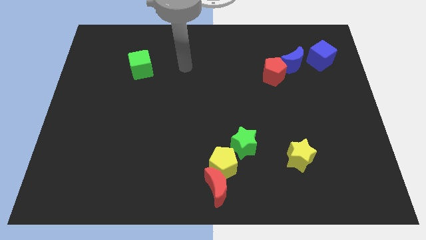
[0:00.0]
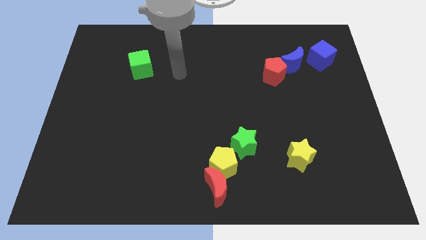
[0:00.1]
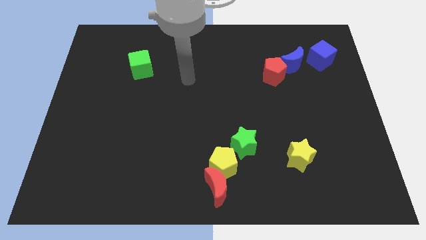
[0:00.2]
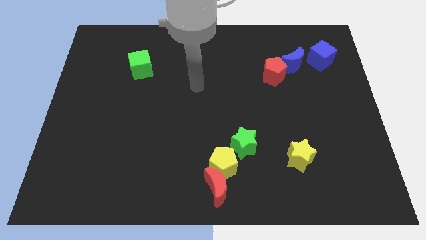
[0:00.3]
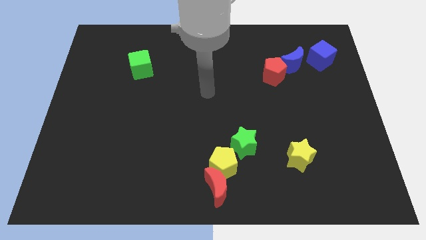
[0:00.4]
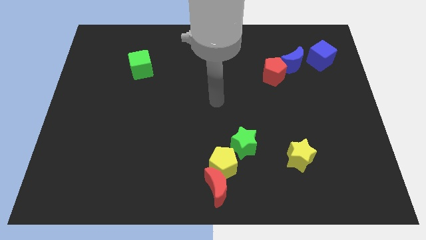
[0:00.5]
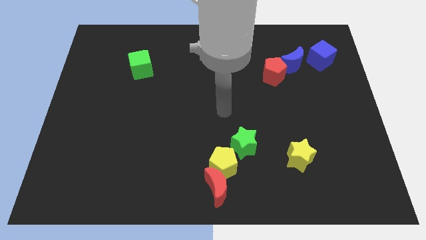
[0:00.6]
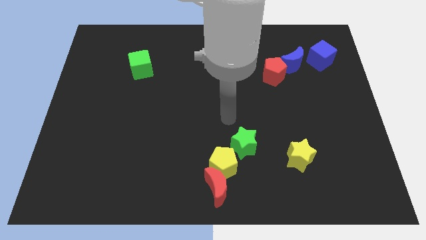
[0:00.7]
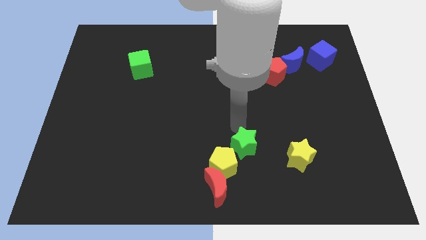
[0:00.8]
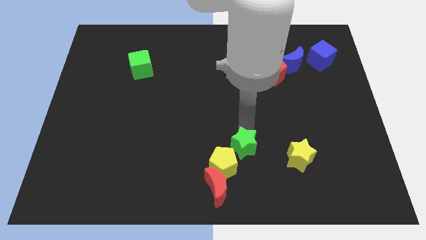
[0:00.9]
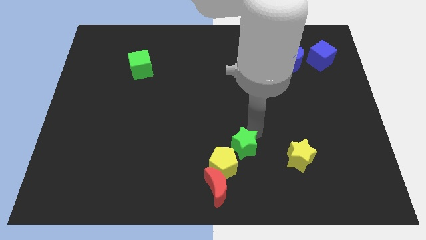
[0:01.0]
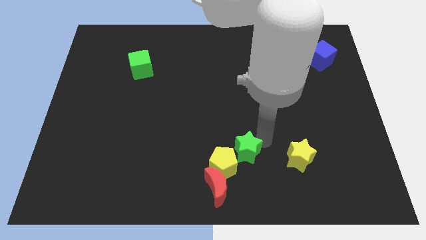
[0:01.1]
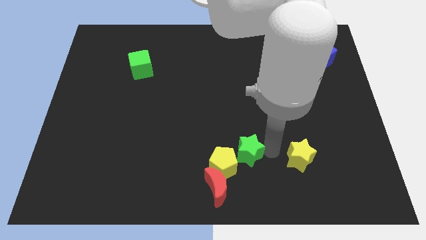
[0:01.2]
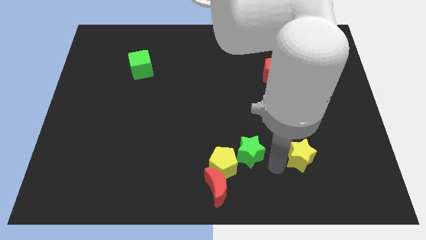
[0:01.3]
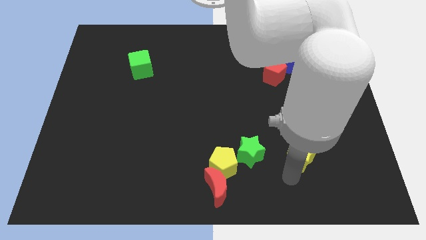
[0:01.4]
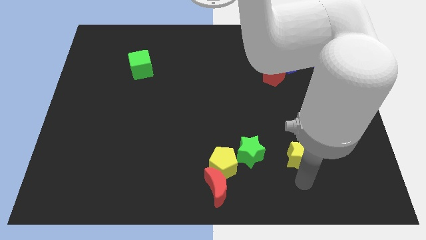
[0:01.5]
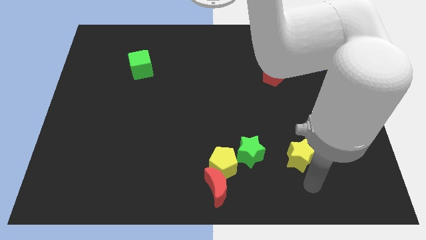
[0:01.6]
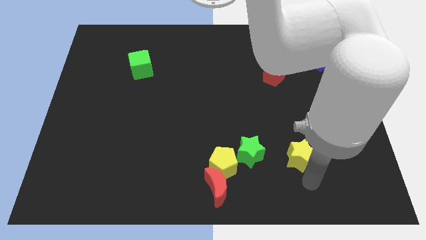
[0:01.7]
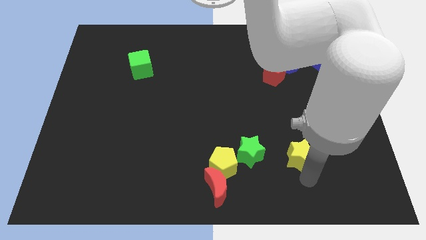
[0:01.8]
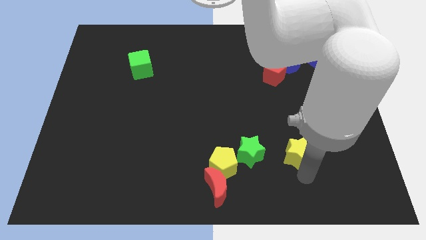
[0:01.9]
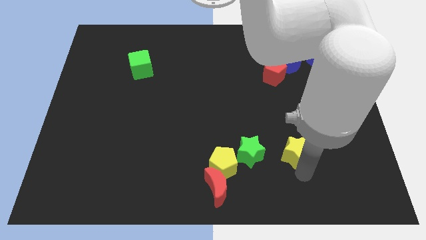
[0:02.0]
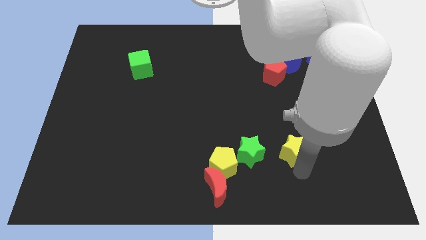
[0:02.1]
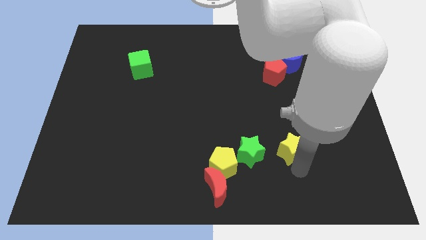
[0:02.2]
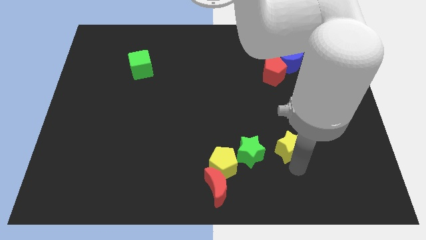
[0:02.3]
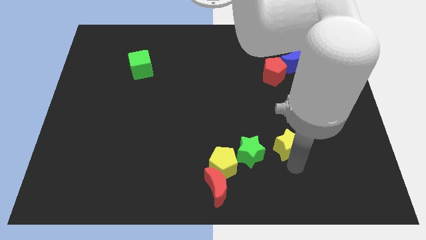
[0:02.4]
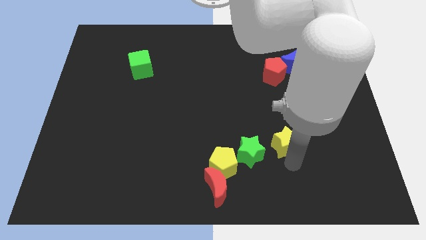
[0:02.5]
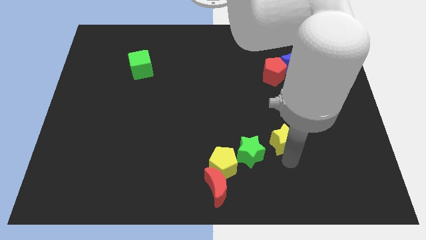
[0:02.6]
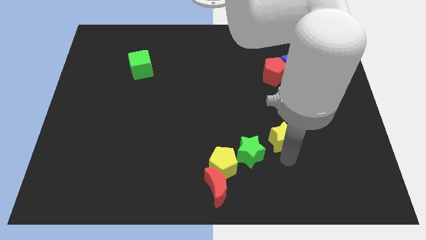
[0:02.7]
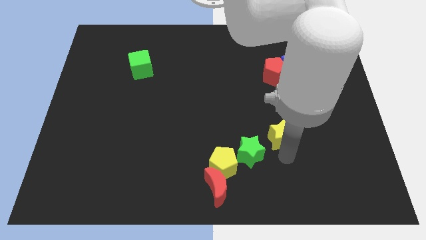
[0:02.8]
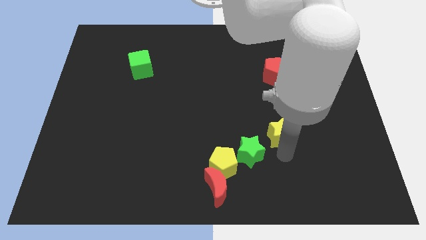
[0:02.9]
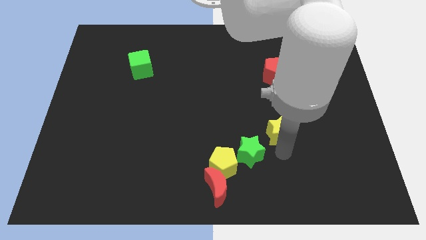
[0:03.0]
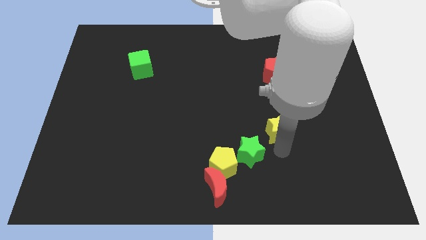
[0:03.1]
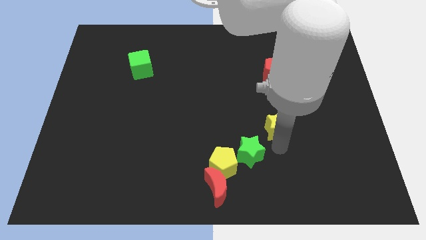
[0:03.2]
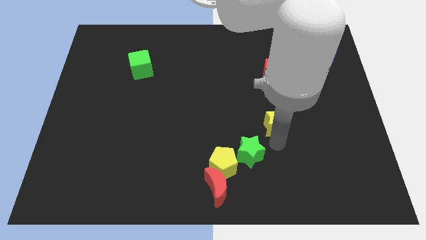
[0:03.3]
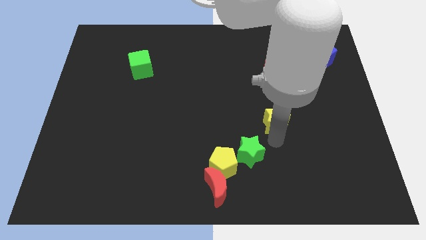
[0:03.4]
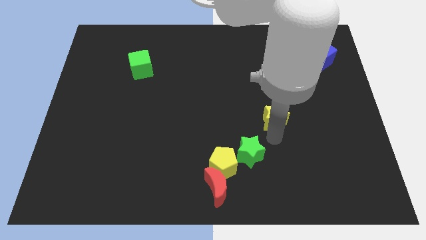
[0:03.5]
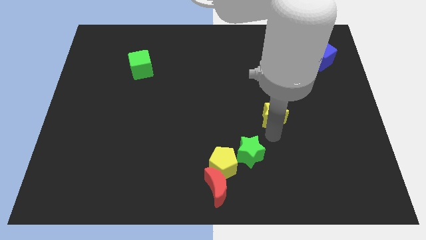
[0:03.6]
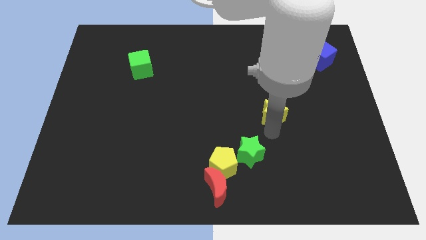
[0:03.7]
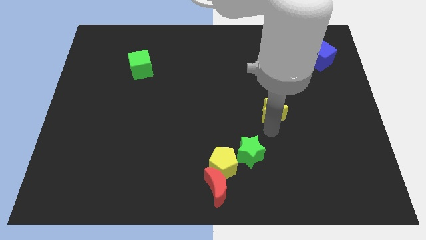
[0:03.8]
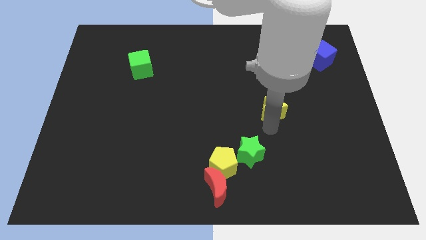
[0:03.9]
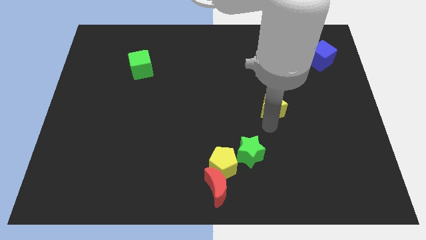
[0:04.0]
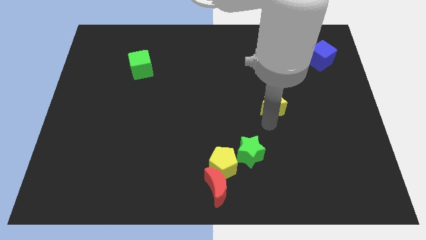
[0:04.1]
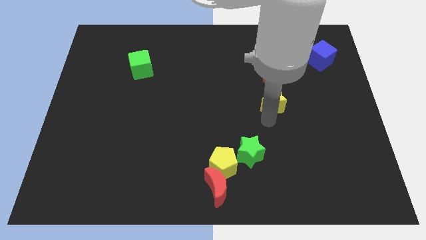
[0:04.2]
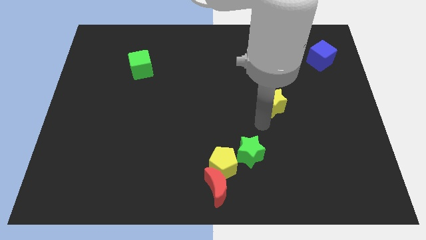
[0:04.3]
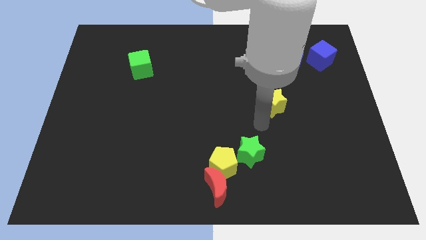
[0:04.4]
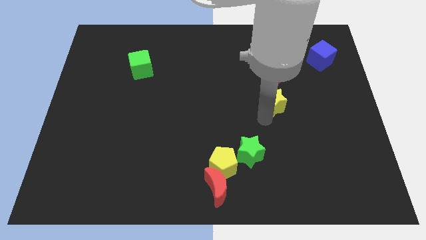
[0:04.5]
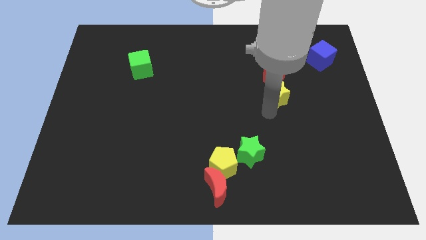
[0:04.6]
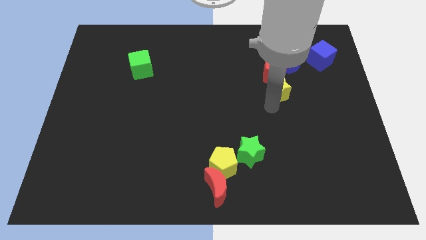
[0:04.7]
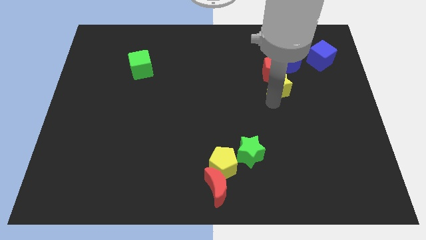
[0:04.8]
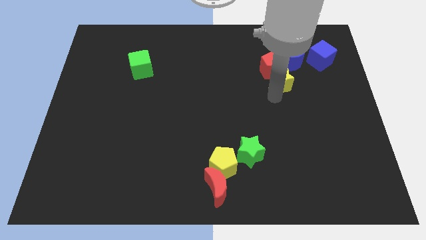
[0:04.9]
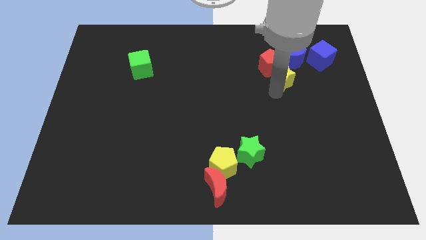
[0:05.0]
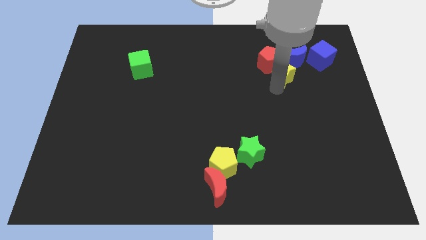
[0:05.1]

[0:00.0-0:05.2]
put the yellow star close to the blue moon

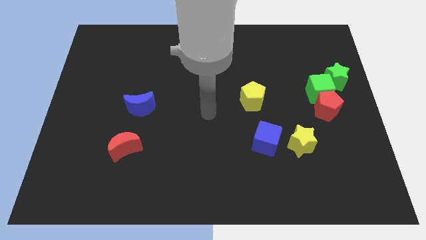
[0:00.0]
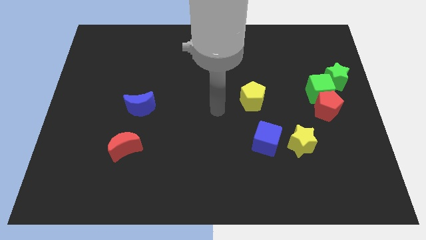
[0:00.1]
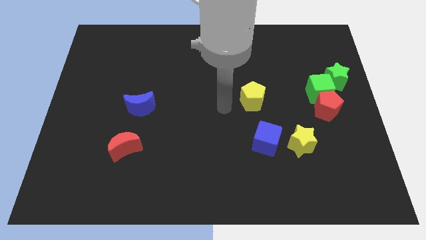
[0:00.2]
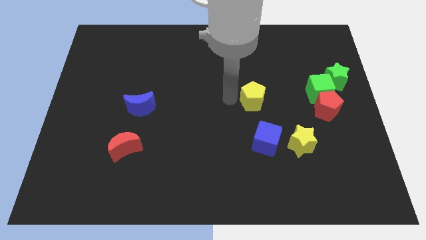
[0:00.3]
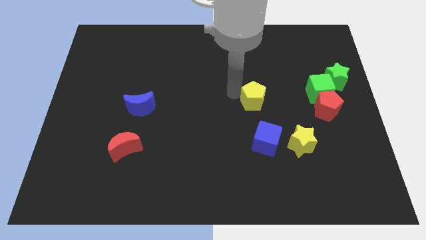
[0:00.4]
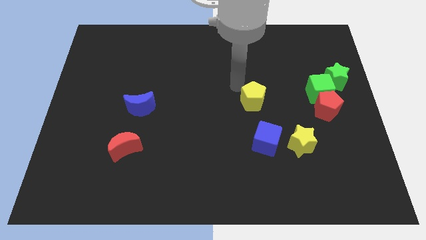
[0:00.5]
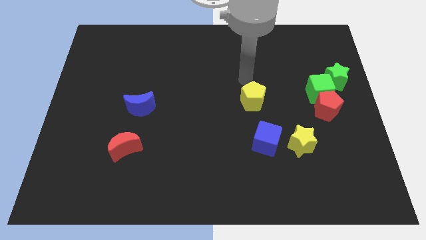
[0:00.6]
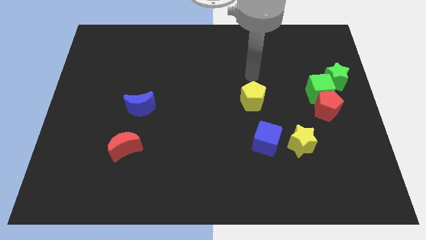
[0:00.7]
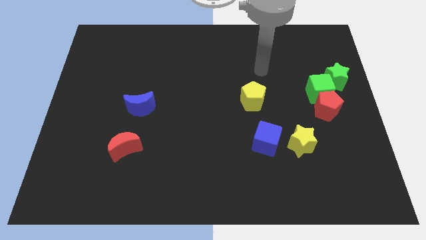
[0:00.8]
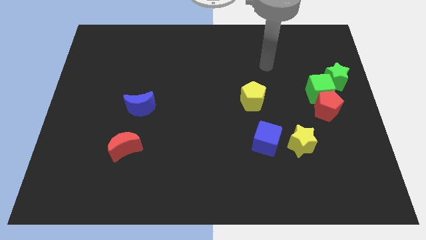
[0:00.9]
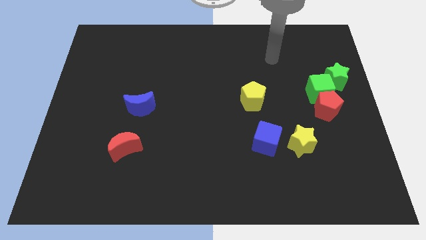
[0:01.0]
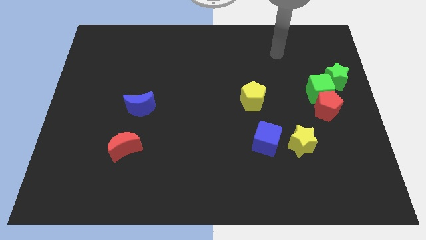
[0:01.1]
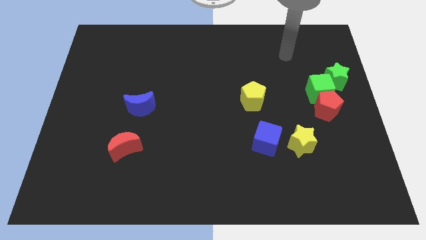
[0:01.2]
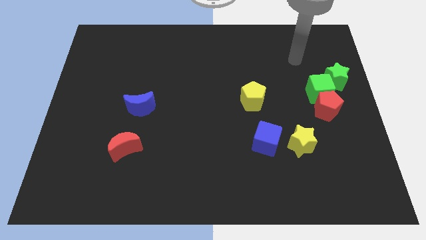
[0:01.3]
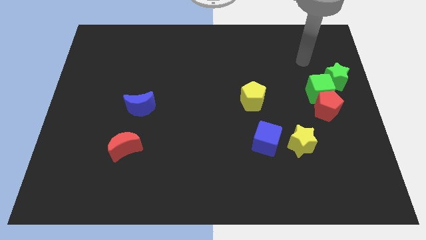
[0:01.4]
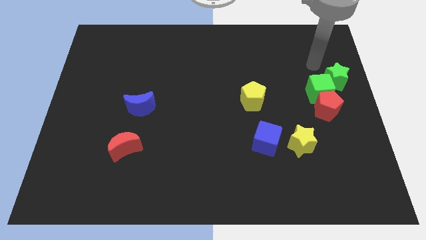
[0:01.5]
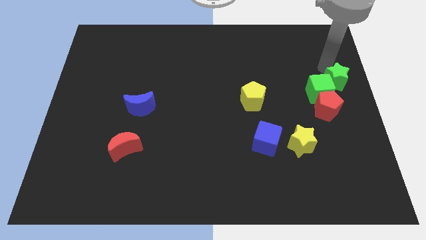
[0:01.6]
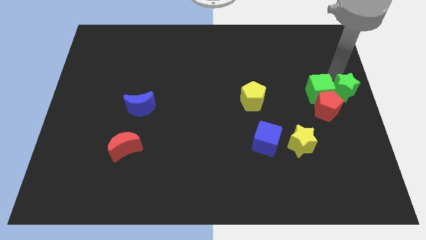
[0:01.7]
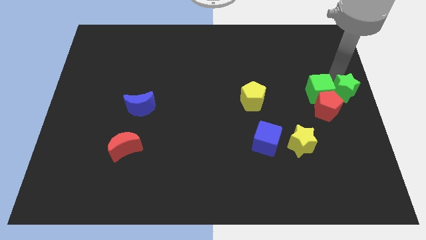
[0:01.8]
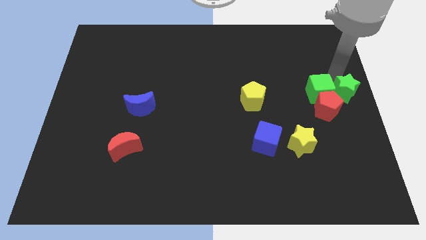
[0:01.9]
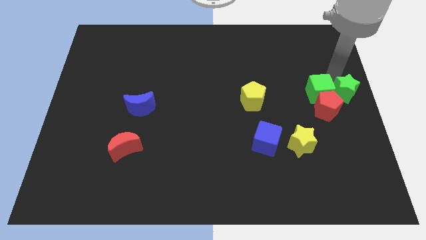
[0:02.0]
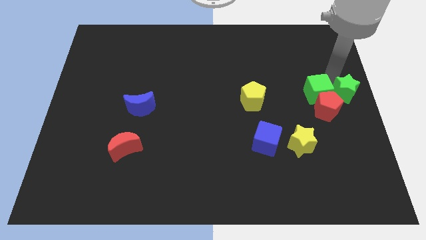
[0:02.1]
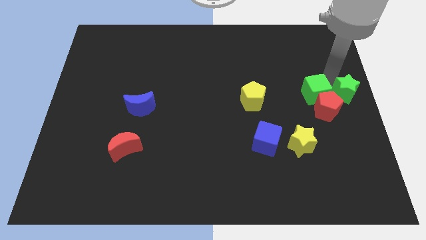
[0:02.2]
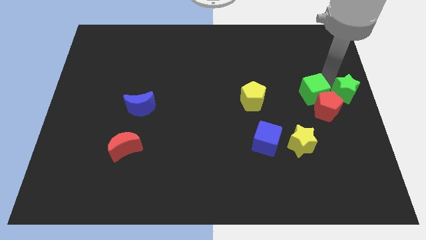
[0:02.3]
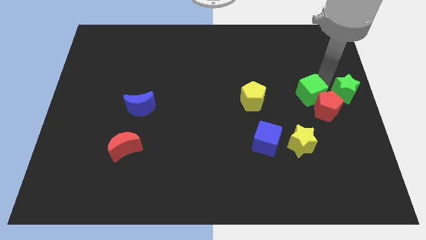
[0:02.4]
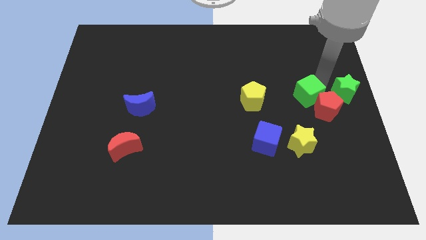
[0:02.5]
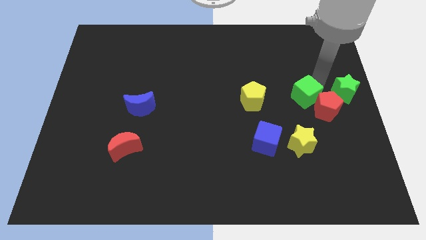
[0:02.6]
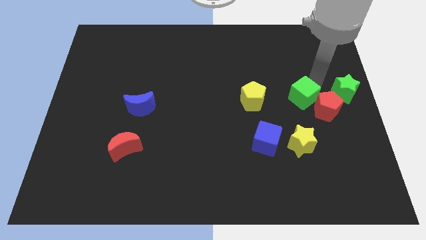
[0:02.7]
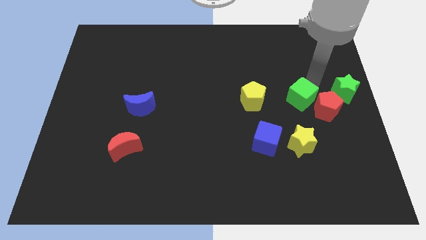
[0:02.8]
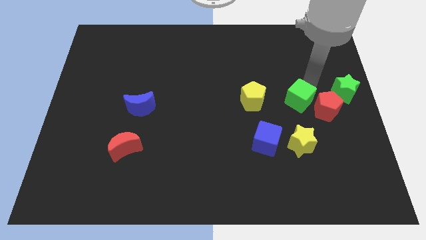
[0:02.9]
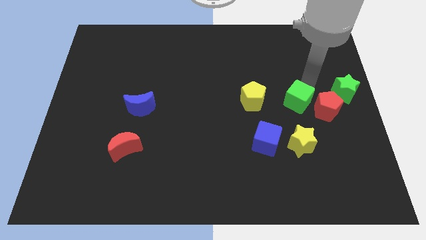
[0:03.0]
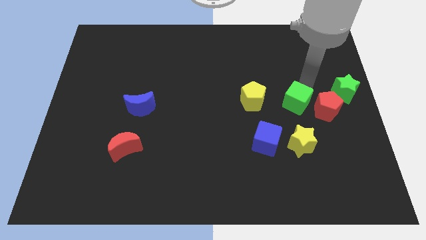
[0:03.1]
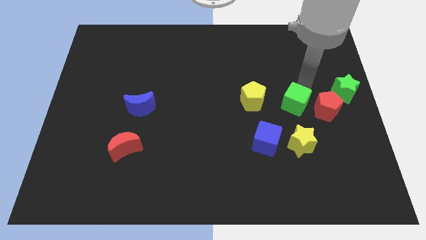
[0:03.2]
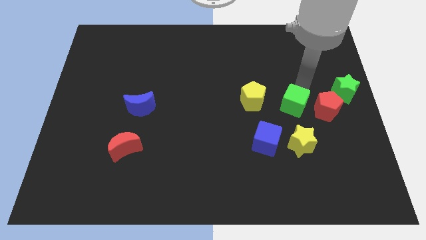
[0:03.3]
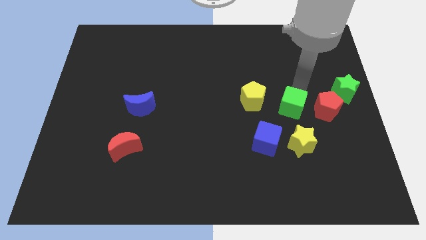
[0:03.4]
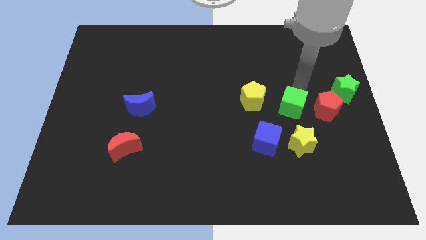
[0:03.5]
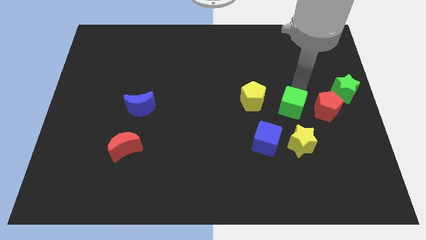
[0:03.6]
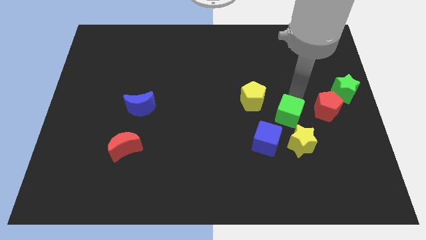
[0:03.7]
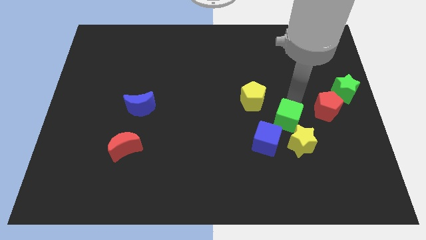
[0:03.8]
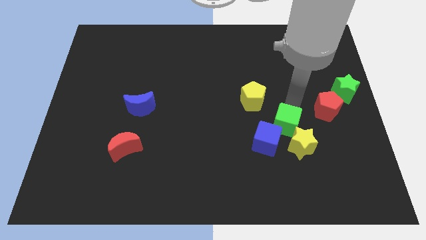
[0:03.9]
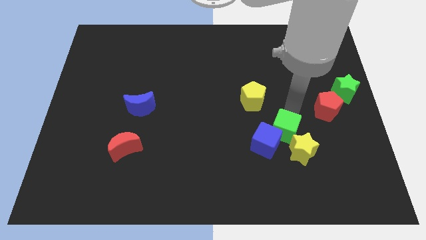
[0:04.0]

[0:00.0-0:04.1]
slide the green cube next to the blue cube
